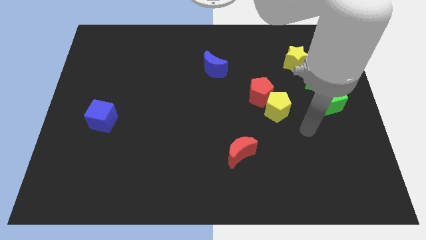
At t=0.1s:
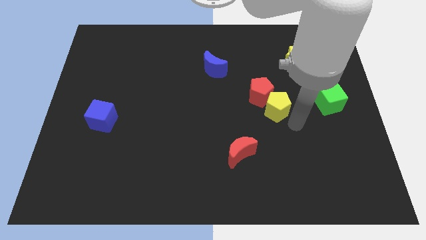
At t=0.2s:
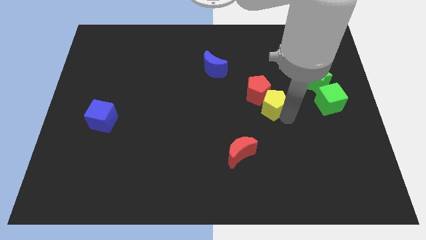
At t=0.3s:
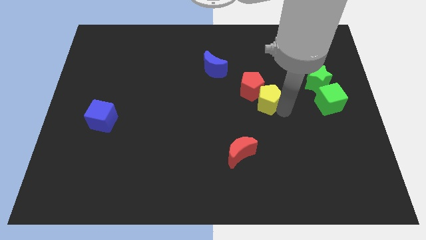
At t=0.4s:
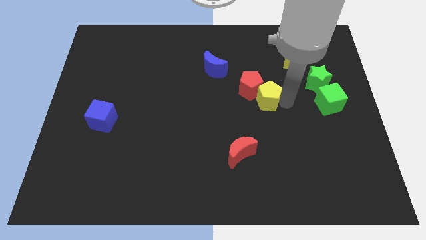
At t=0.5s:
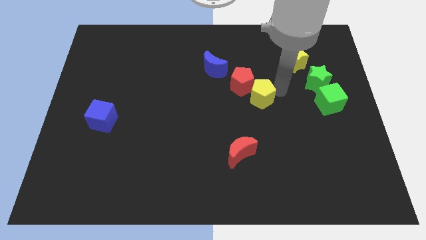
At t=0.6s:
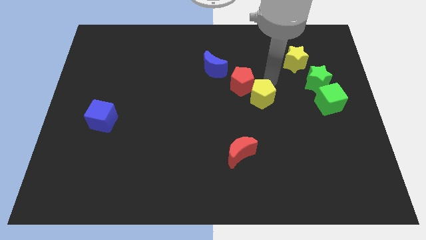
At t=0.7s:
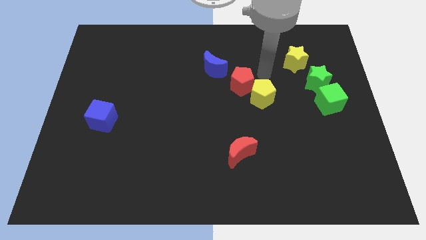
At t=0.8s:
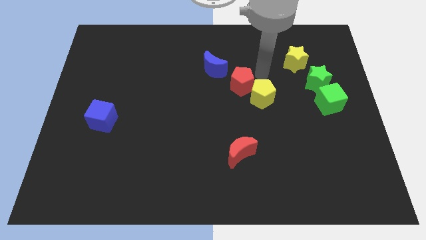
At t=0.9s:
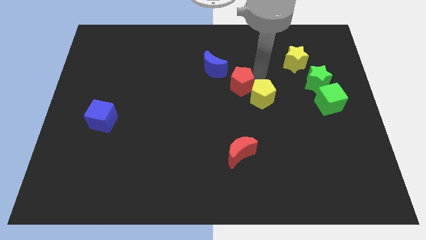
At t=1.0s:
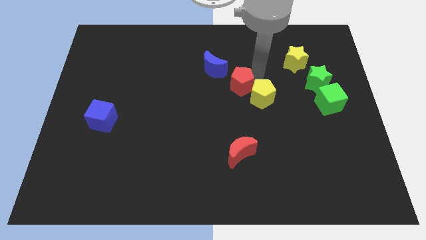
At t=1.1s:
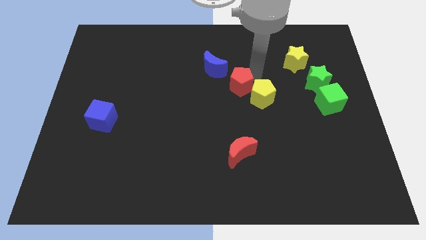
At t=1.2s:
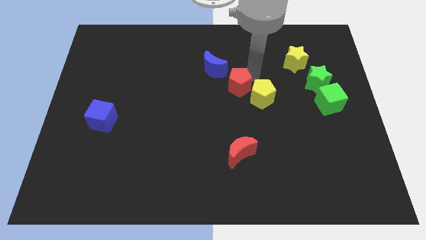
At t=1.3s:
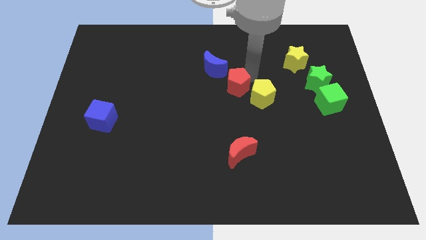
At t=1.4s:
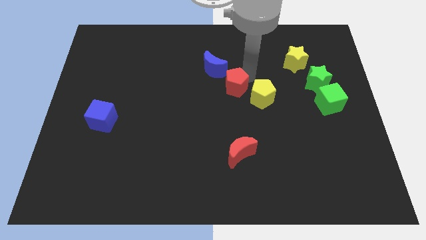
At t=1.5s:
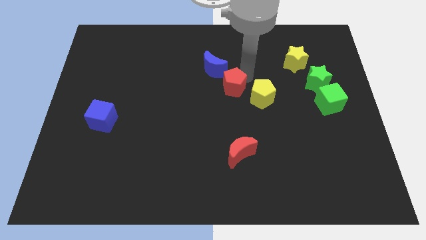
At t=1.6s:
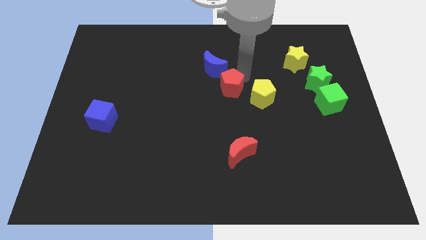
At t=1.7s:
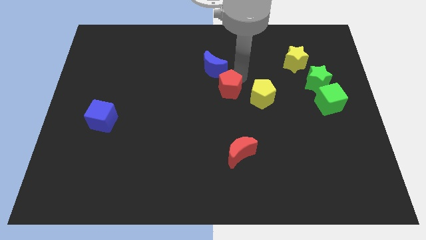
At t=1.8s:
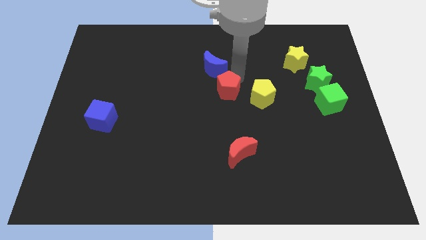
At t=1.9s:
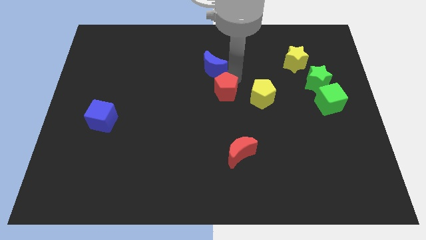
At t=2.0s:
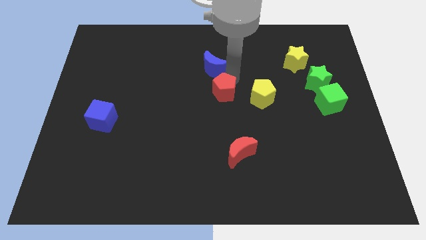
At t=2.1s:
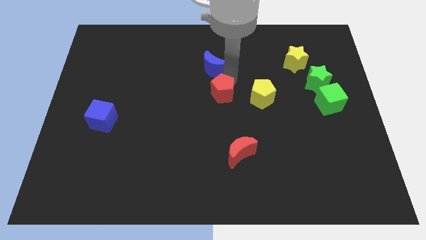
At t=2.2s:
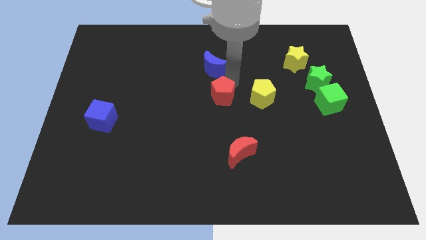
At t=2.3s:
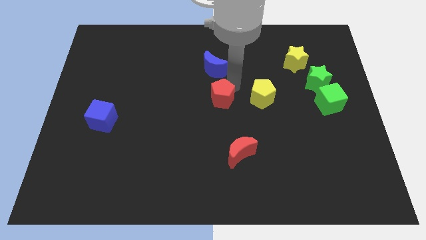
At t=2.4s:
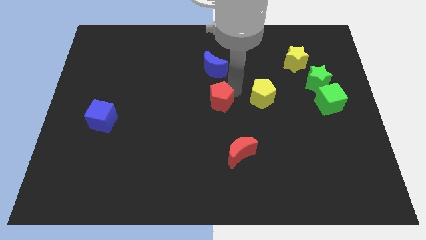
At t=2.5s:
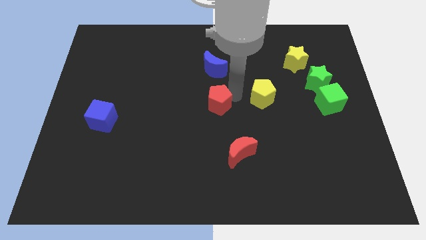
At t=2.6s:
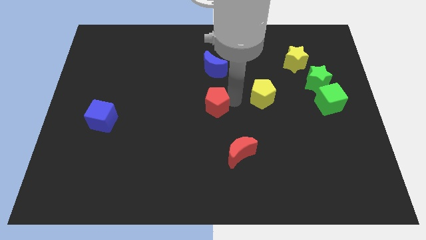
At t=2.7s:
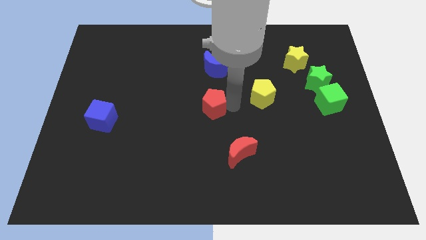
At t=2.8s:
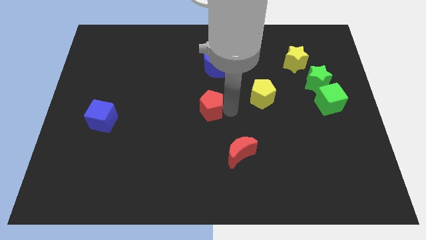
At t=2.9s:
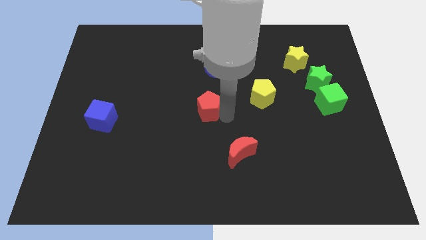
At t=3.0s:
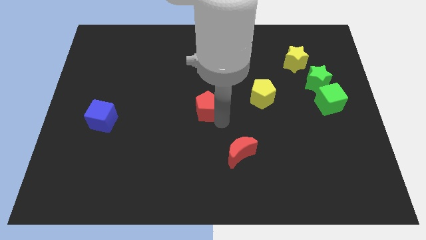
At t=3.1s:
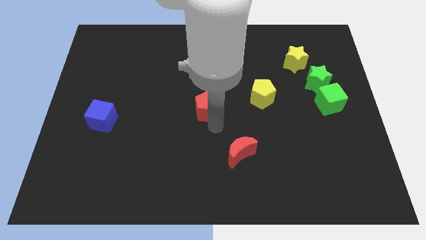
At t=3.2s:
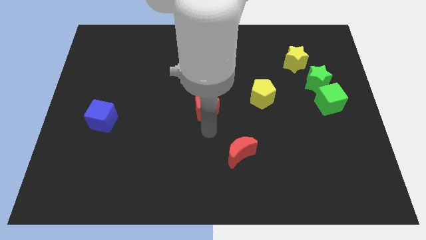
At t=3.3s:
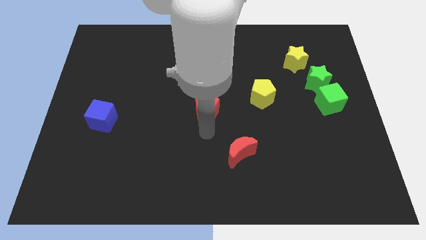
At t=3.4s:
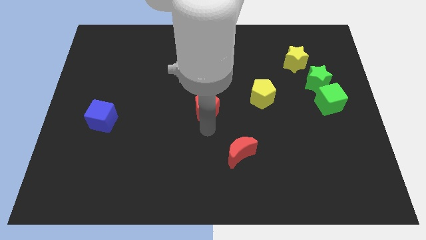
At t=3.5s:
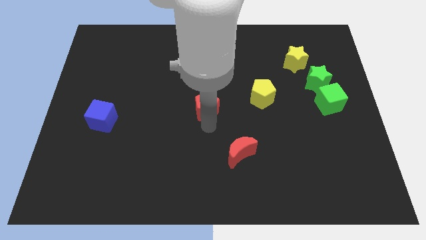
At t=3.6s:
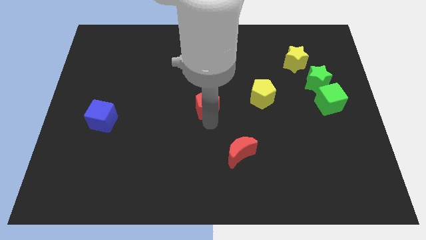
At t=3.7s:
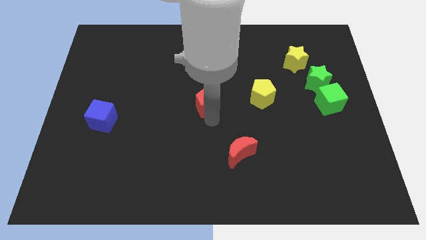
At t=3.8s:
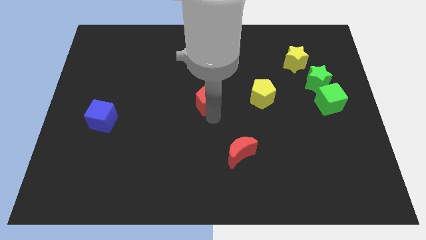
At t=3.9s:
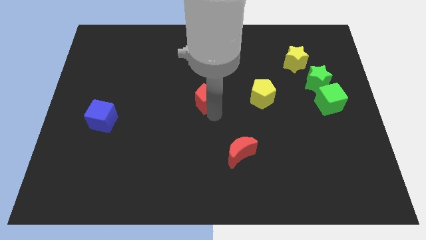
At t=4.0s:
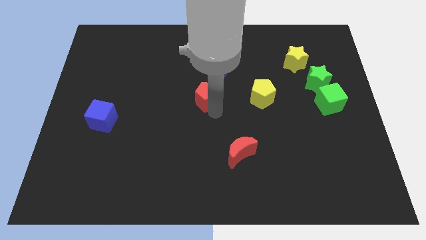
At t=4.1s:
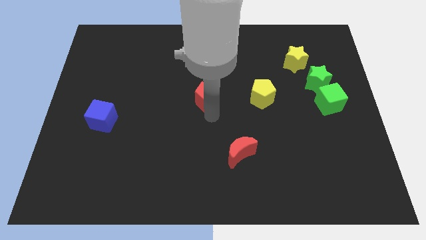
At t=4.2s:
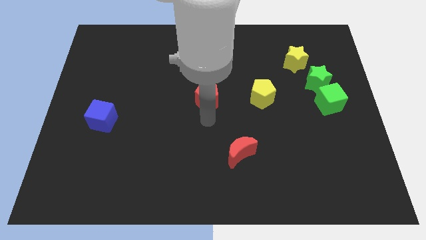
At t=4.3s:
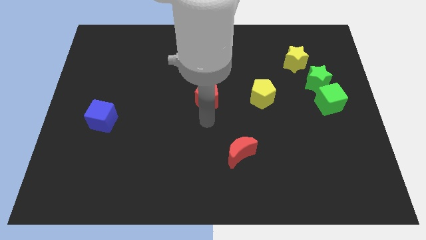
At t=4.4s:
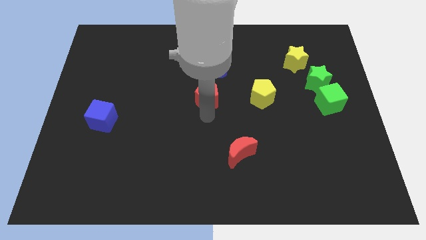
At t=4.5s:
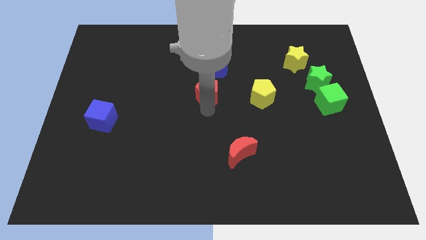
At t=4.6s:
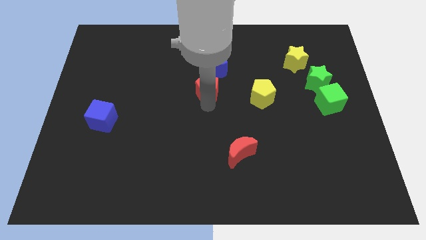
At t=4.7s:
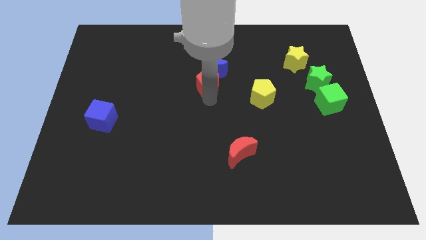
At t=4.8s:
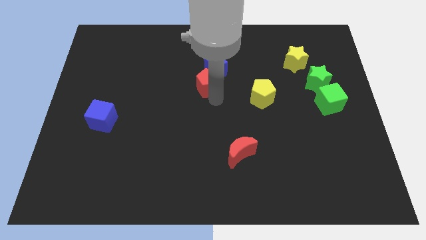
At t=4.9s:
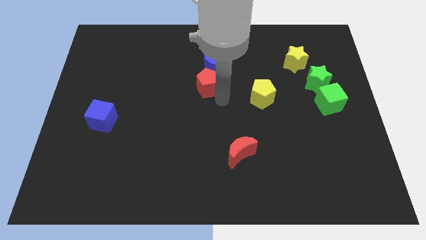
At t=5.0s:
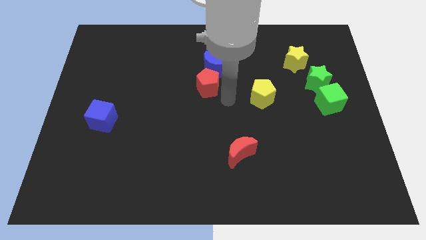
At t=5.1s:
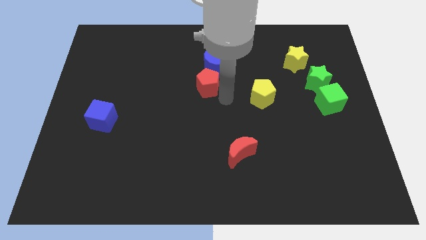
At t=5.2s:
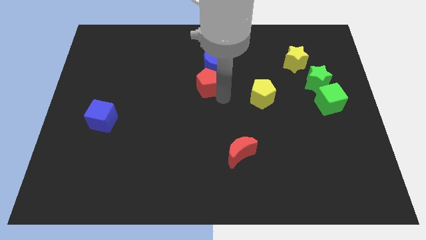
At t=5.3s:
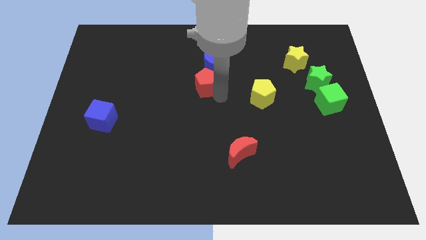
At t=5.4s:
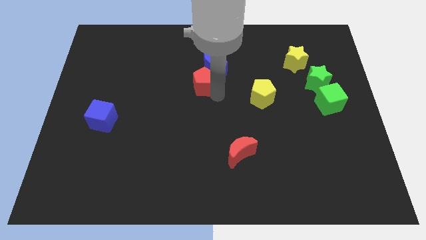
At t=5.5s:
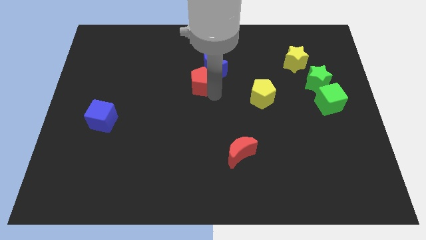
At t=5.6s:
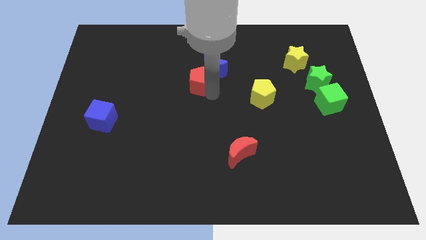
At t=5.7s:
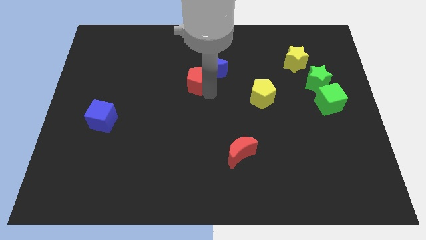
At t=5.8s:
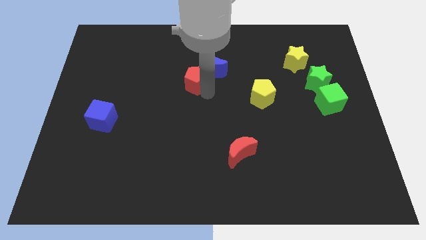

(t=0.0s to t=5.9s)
slide the red pentagon to the left of the blue moon

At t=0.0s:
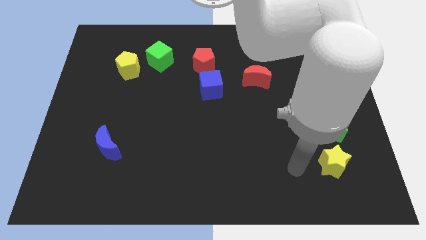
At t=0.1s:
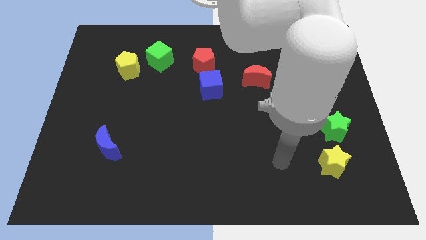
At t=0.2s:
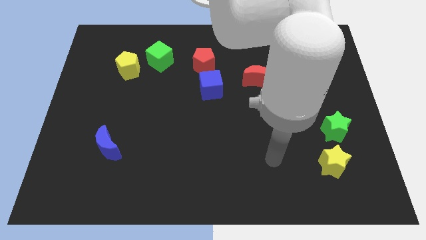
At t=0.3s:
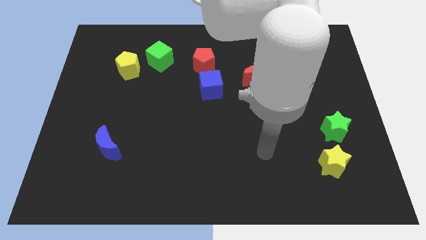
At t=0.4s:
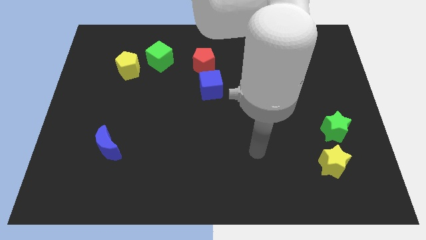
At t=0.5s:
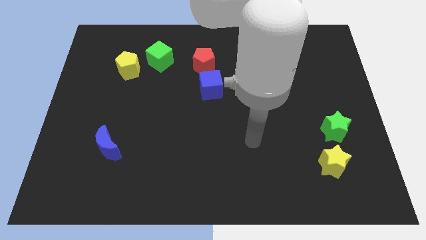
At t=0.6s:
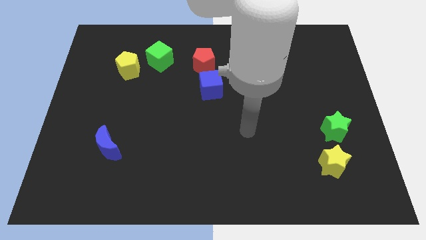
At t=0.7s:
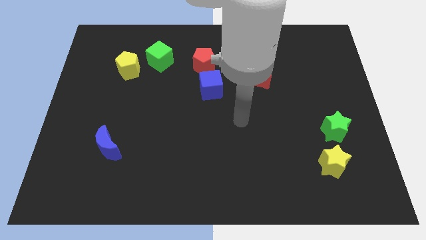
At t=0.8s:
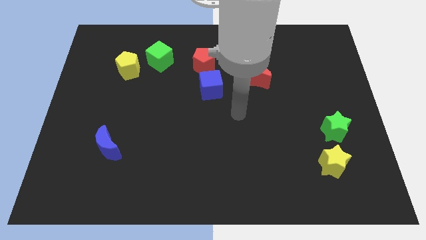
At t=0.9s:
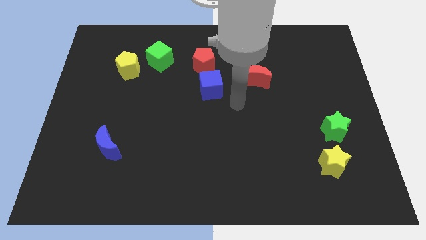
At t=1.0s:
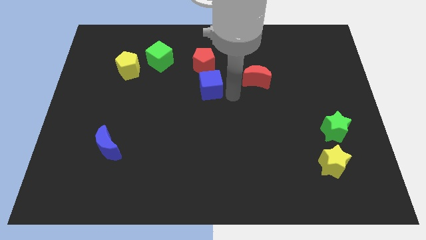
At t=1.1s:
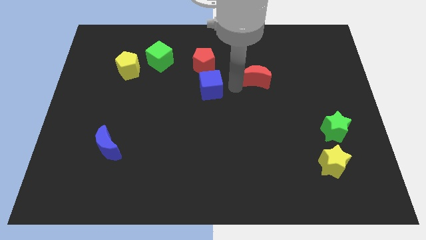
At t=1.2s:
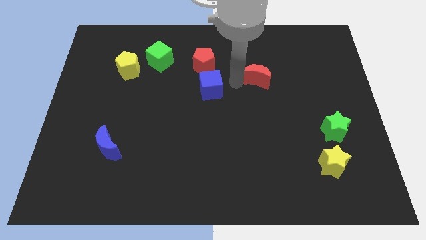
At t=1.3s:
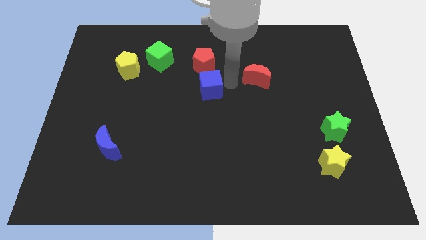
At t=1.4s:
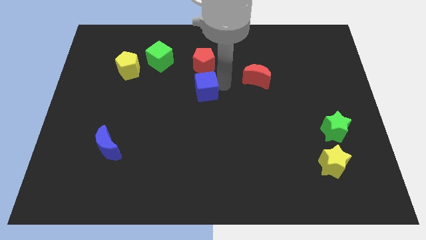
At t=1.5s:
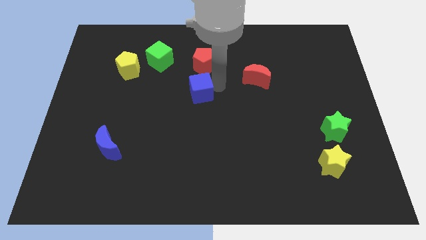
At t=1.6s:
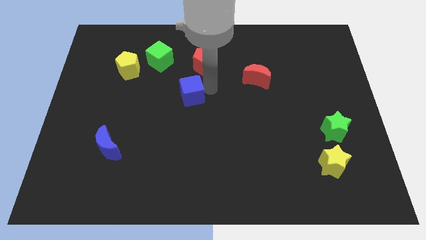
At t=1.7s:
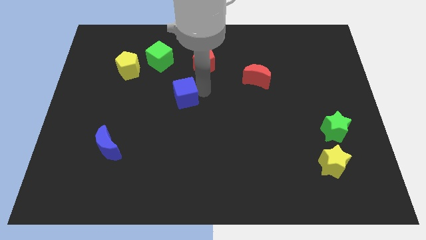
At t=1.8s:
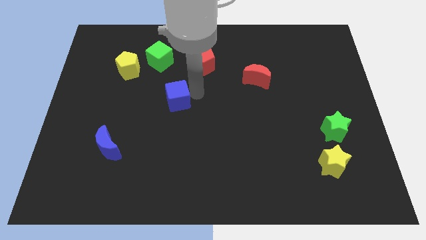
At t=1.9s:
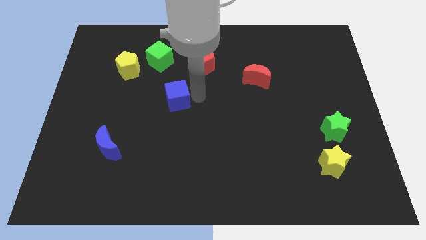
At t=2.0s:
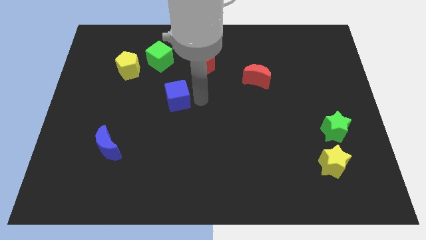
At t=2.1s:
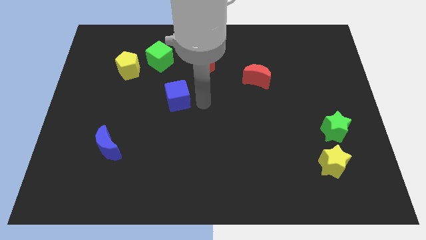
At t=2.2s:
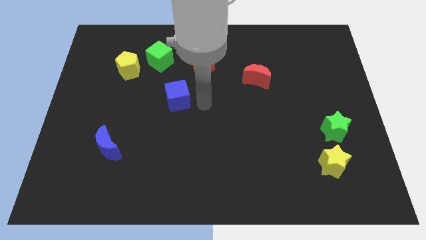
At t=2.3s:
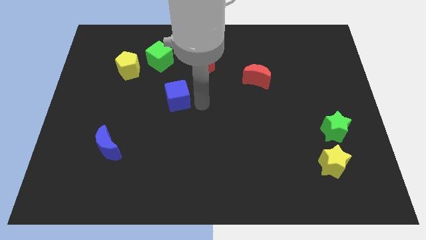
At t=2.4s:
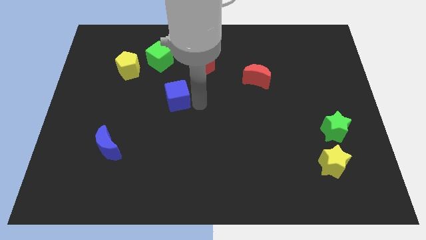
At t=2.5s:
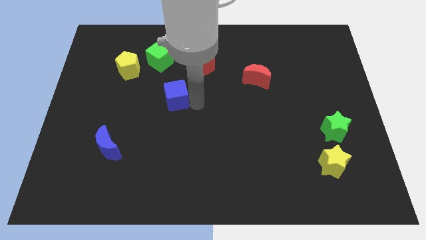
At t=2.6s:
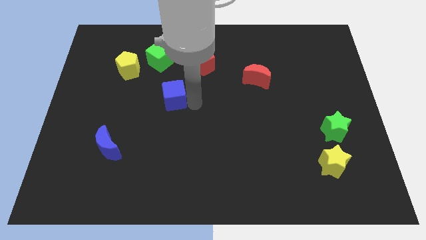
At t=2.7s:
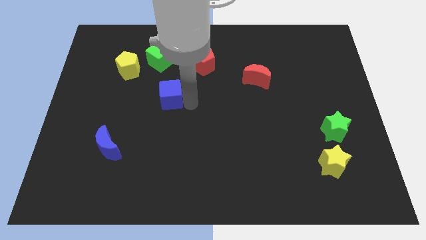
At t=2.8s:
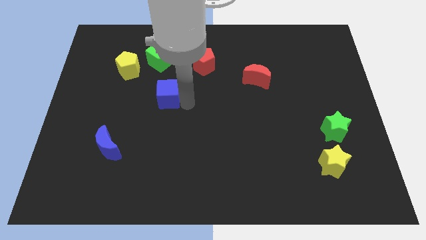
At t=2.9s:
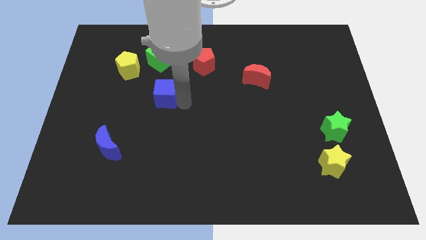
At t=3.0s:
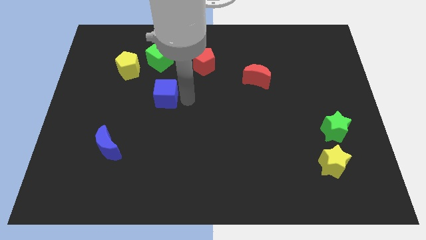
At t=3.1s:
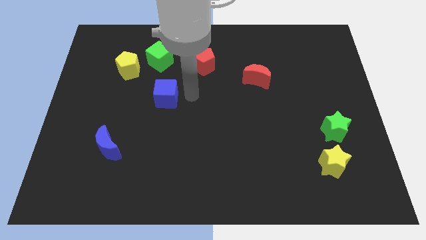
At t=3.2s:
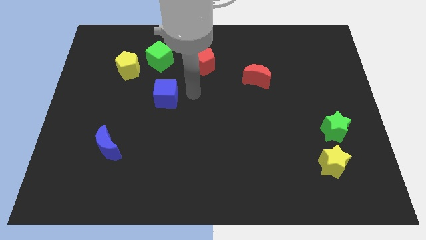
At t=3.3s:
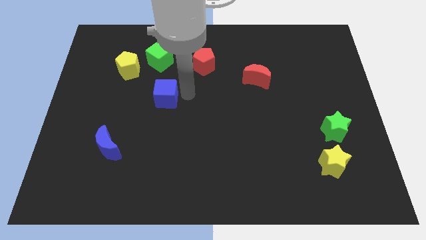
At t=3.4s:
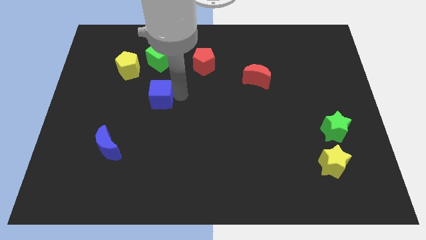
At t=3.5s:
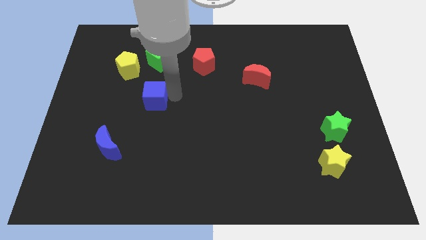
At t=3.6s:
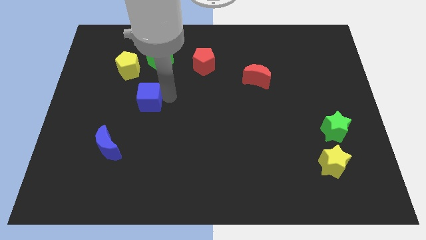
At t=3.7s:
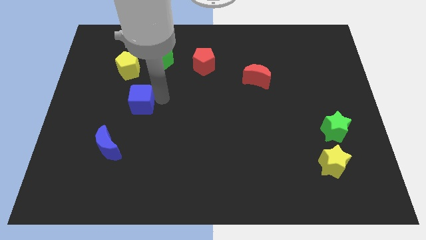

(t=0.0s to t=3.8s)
move the blue cube to the bottom side of the yellow pentagon
